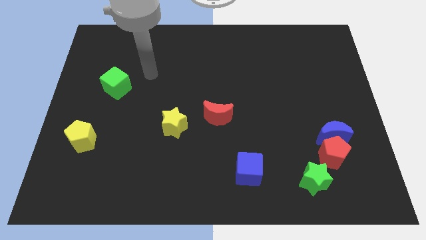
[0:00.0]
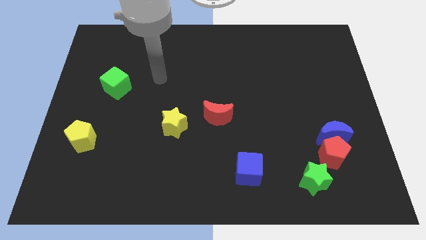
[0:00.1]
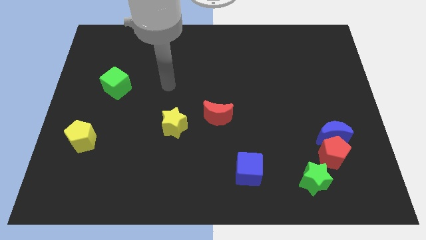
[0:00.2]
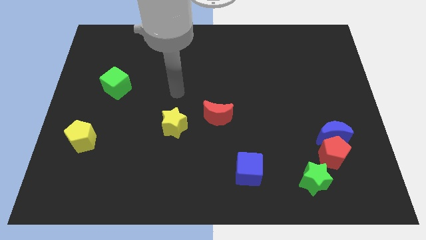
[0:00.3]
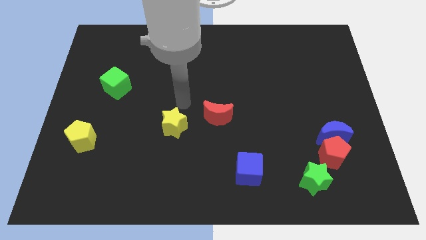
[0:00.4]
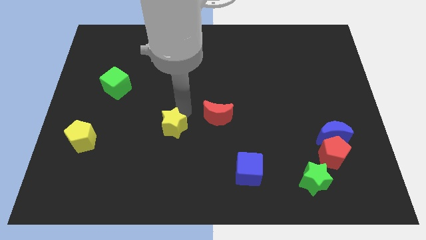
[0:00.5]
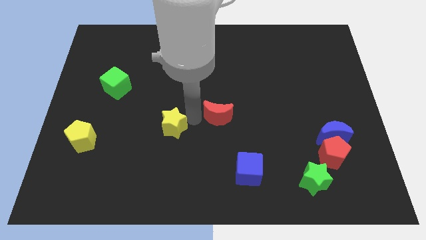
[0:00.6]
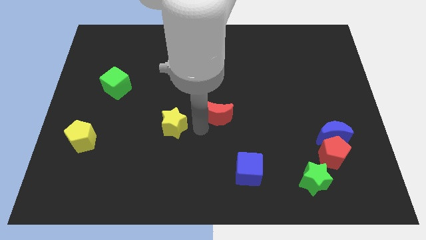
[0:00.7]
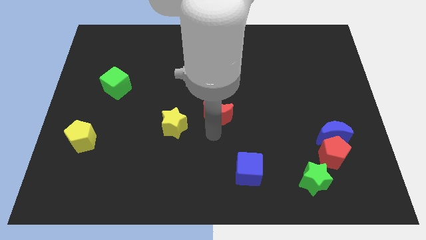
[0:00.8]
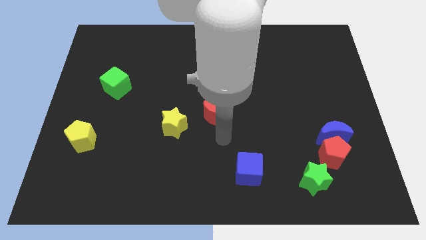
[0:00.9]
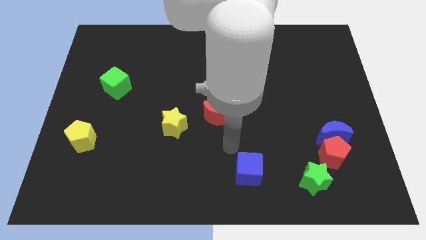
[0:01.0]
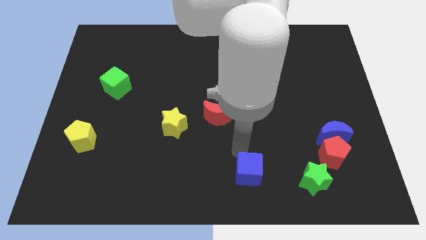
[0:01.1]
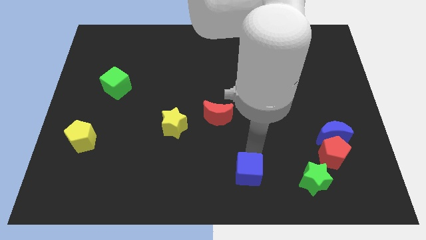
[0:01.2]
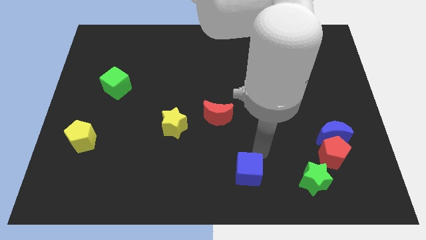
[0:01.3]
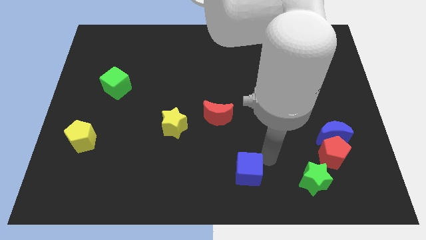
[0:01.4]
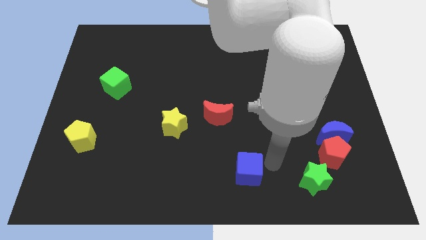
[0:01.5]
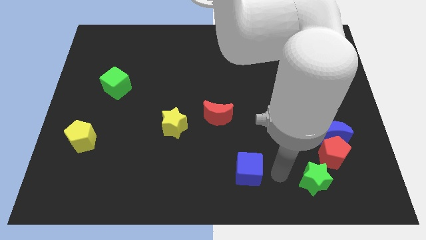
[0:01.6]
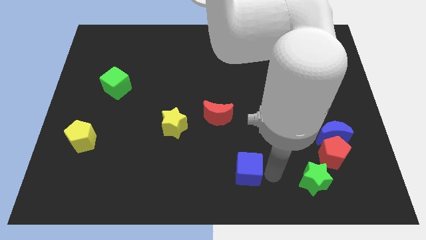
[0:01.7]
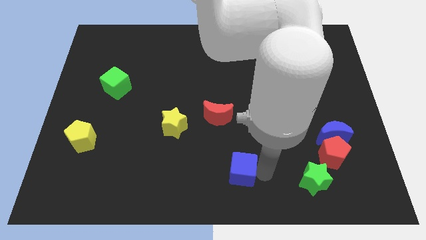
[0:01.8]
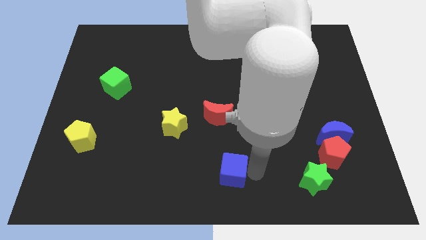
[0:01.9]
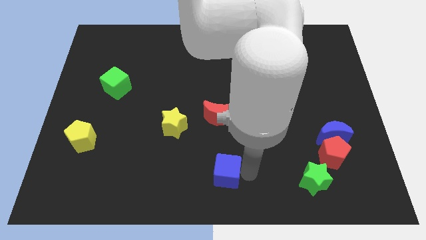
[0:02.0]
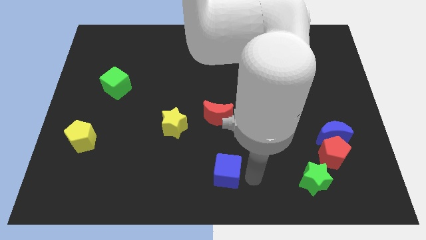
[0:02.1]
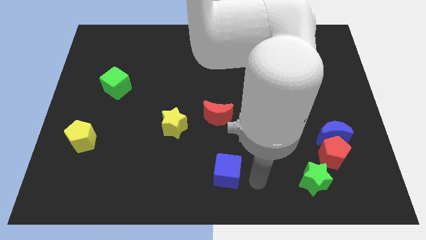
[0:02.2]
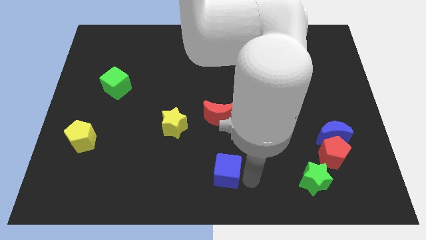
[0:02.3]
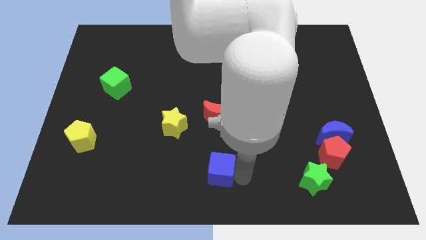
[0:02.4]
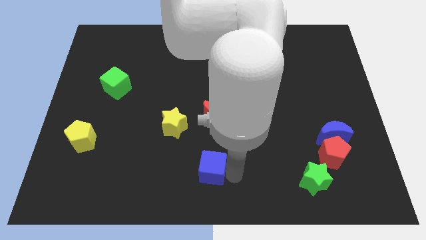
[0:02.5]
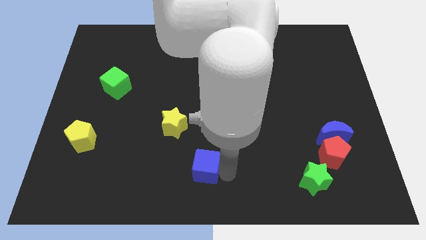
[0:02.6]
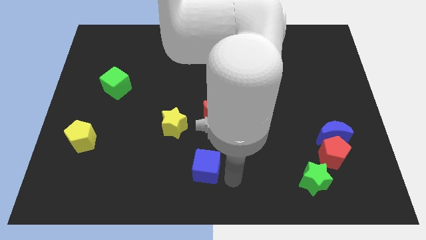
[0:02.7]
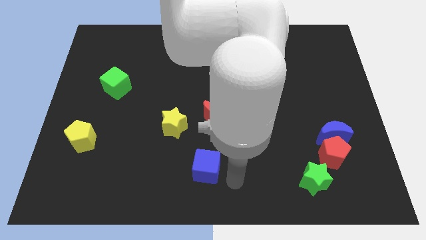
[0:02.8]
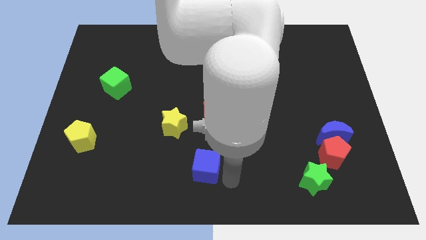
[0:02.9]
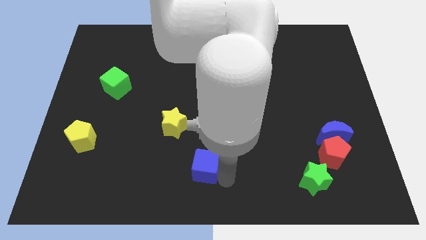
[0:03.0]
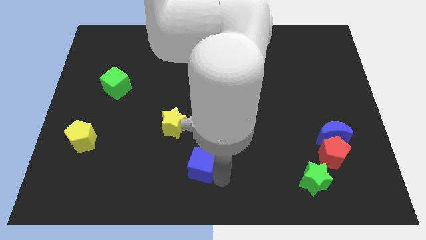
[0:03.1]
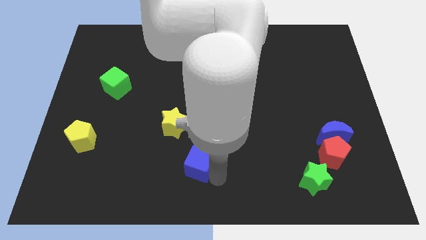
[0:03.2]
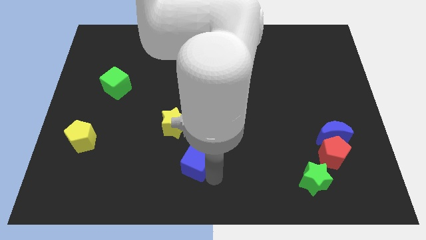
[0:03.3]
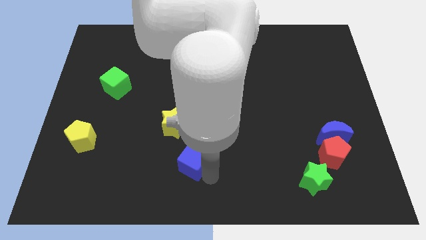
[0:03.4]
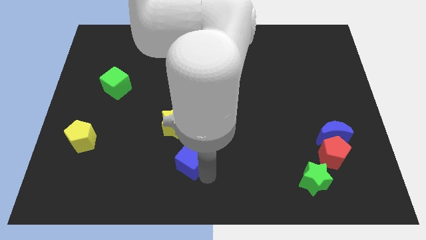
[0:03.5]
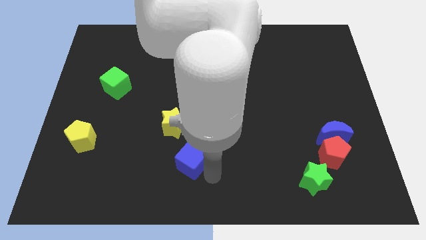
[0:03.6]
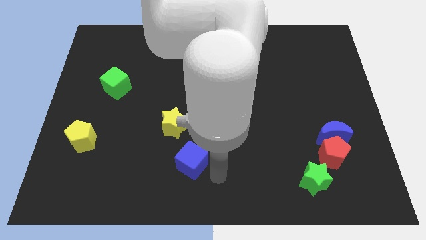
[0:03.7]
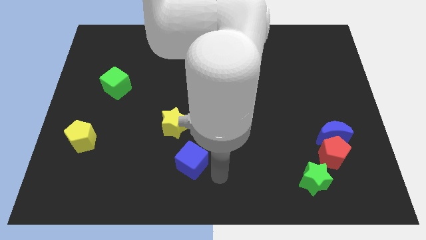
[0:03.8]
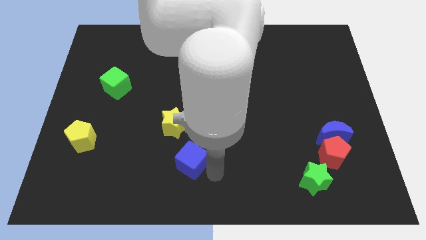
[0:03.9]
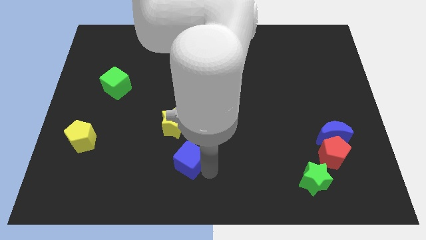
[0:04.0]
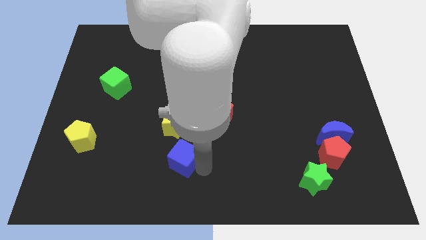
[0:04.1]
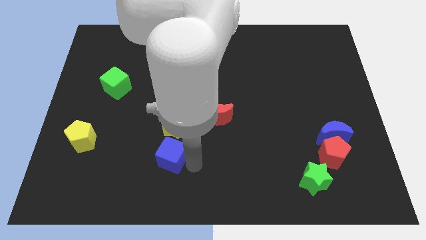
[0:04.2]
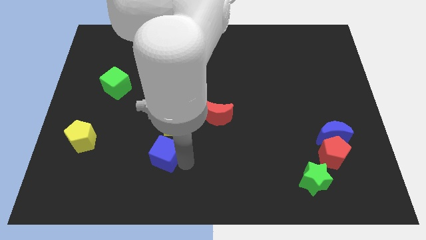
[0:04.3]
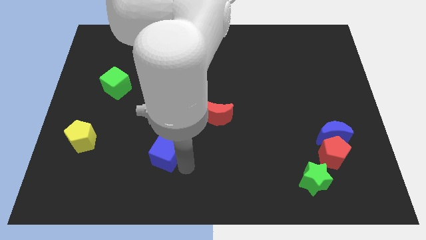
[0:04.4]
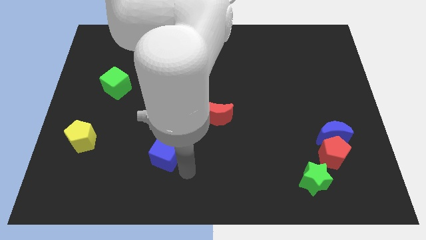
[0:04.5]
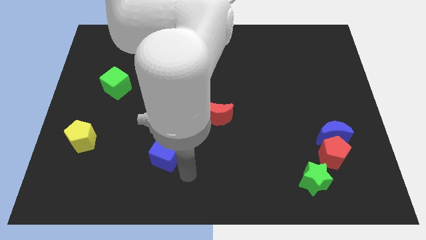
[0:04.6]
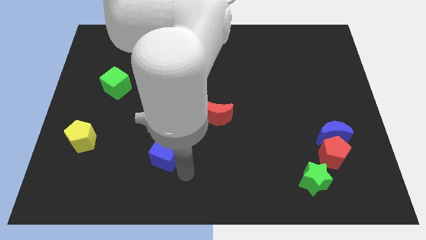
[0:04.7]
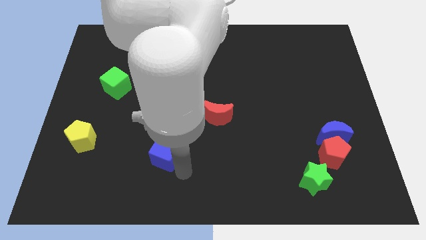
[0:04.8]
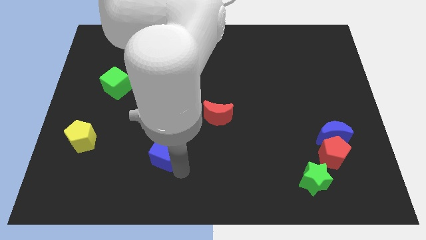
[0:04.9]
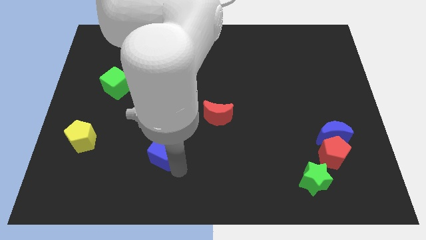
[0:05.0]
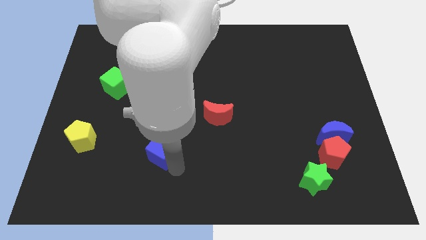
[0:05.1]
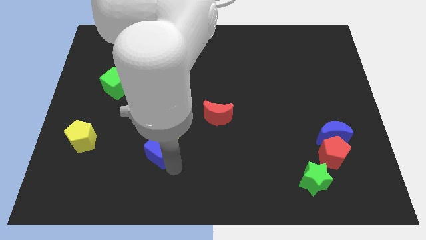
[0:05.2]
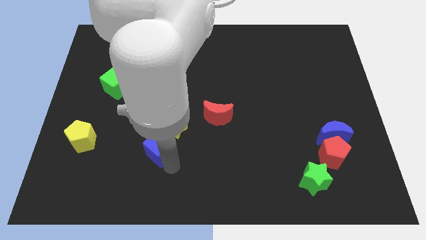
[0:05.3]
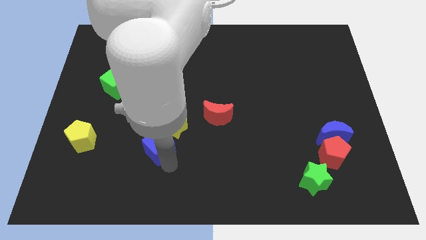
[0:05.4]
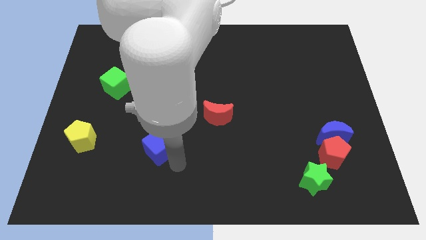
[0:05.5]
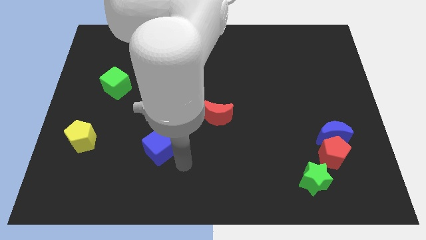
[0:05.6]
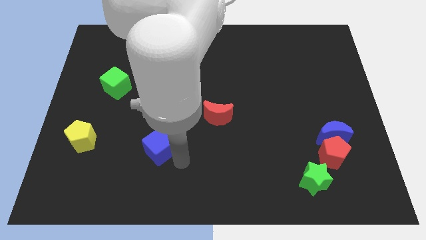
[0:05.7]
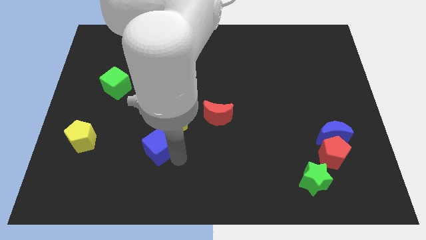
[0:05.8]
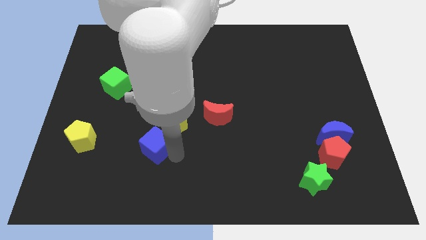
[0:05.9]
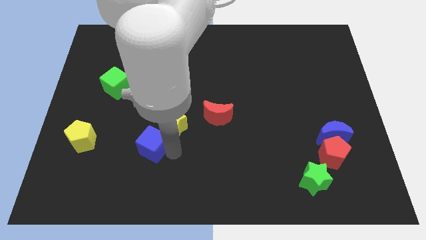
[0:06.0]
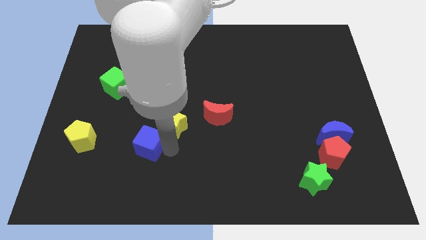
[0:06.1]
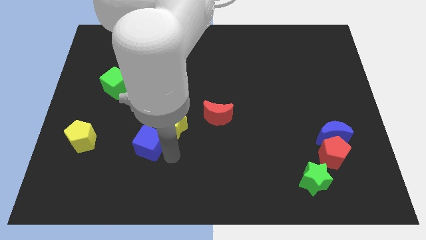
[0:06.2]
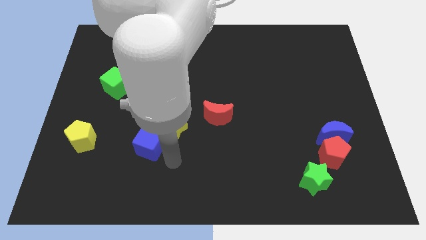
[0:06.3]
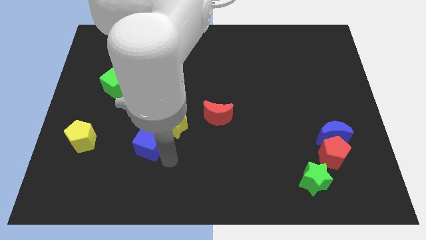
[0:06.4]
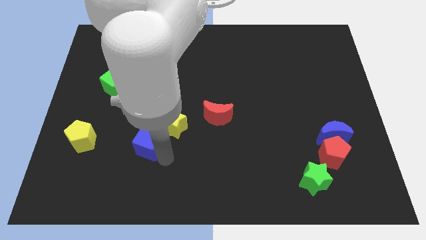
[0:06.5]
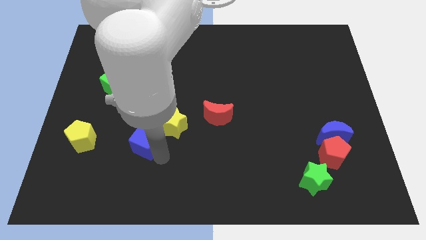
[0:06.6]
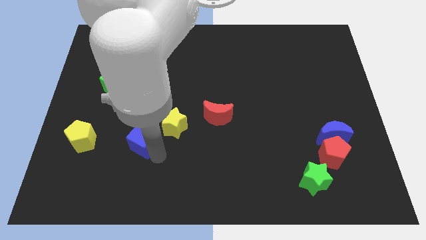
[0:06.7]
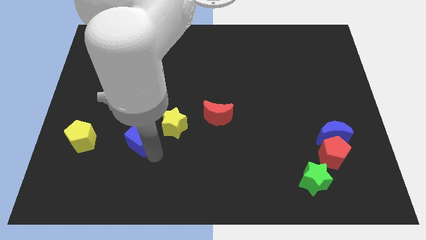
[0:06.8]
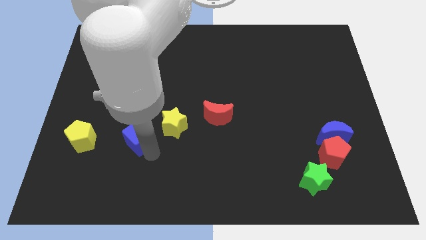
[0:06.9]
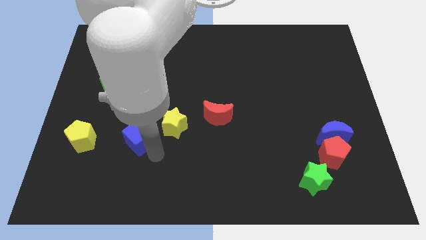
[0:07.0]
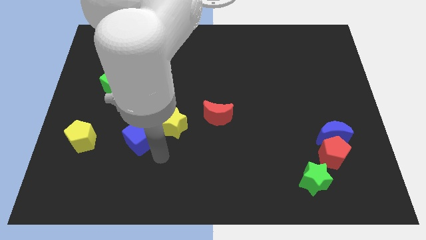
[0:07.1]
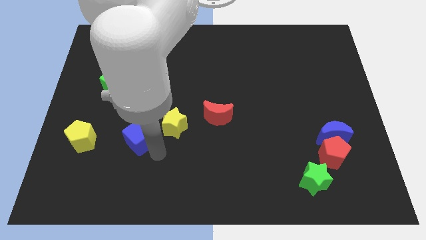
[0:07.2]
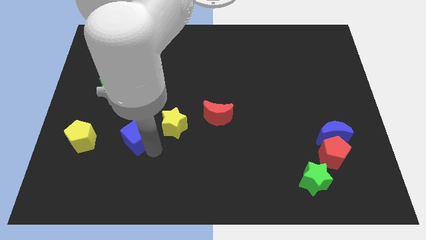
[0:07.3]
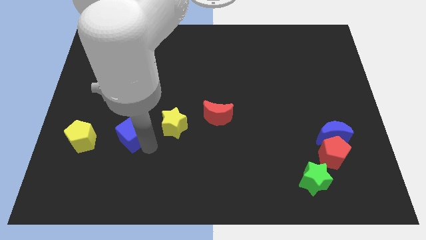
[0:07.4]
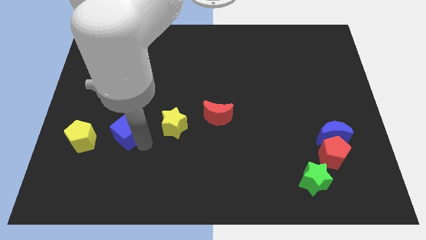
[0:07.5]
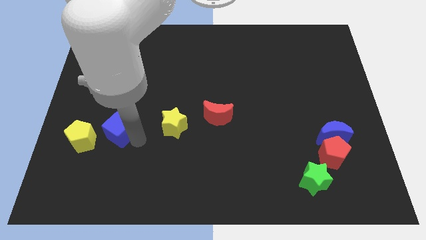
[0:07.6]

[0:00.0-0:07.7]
put the blue cube to the top right of the yellow pentagon
